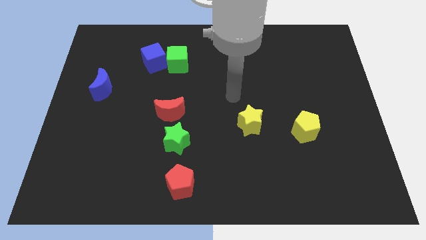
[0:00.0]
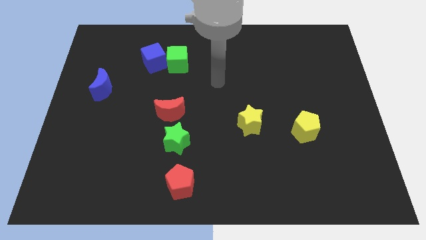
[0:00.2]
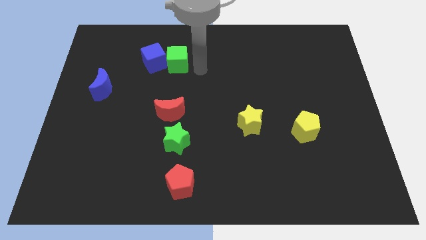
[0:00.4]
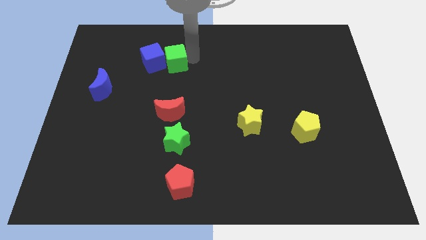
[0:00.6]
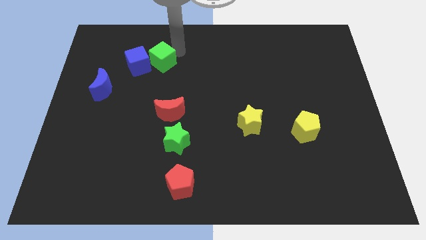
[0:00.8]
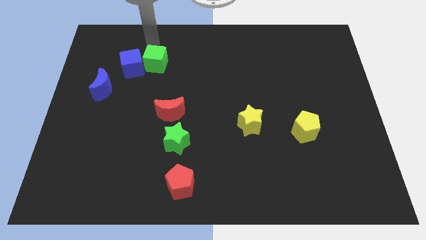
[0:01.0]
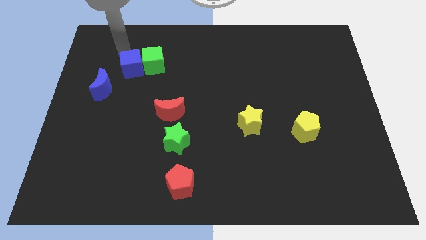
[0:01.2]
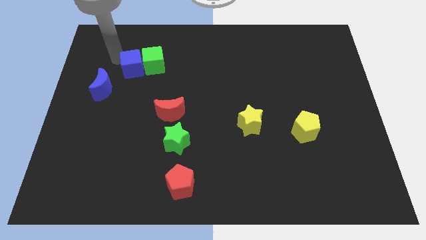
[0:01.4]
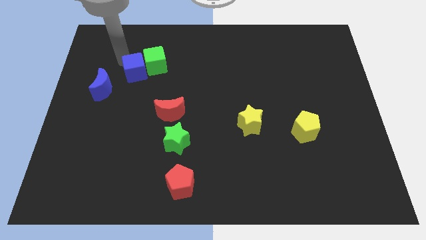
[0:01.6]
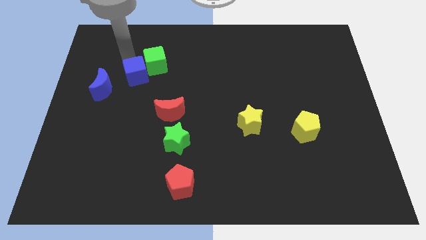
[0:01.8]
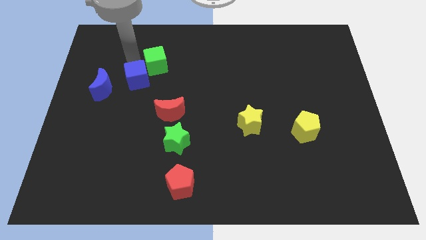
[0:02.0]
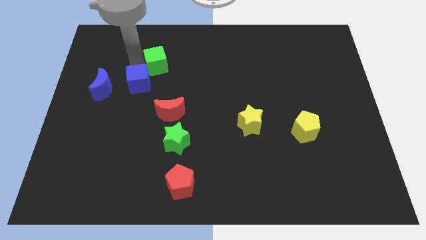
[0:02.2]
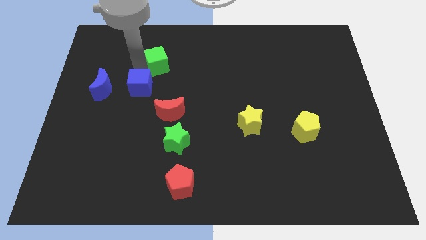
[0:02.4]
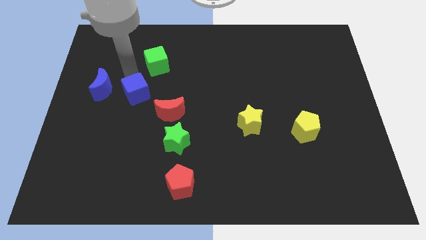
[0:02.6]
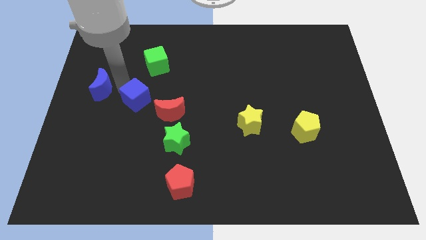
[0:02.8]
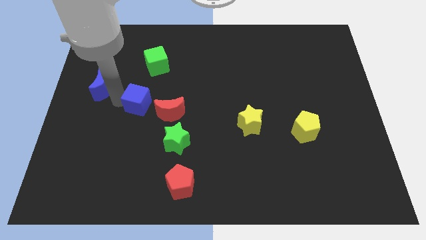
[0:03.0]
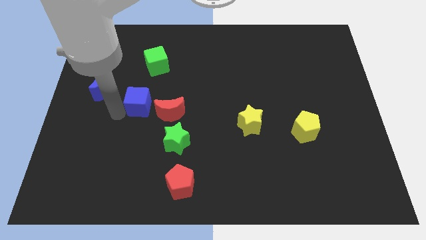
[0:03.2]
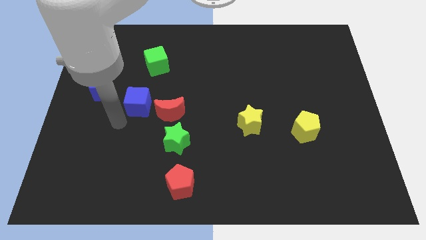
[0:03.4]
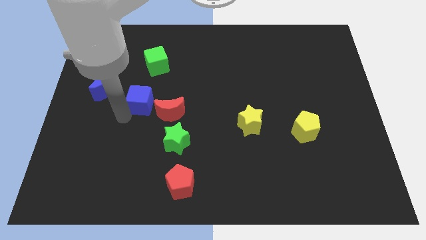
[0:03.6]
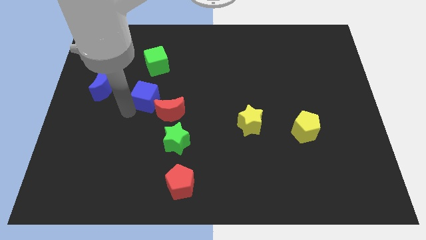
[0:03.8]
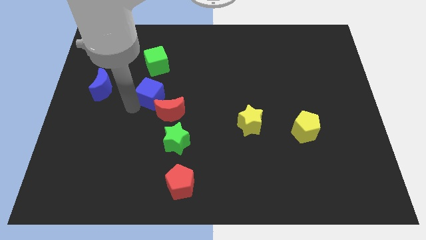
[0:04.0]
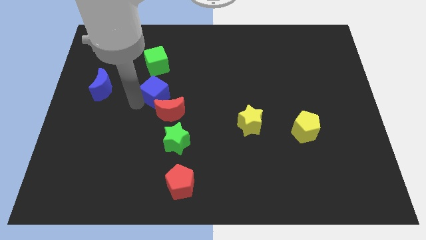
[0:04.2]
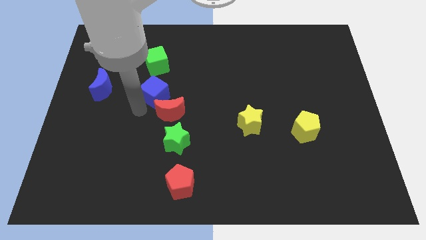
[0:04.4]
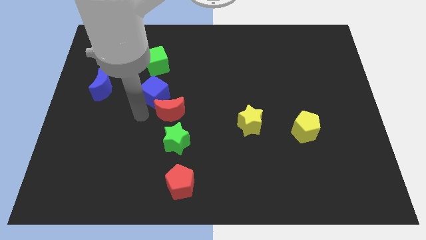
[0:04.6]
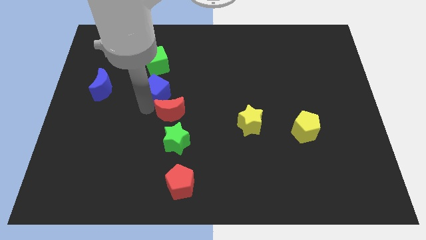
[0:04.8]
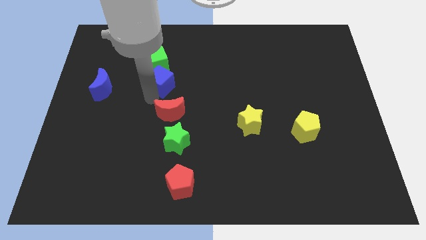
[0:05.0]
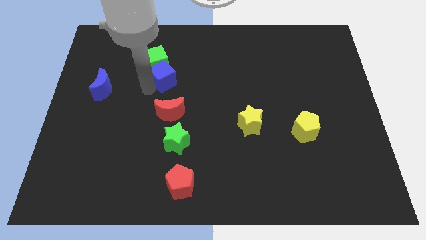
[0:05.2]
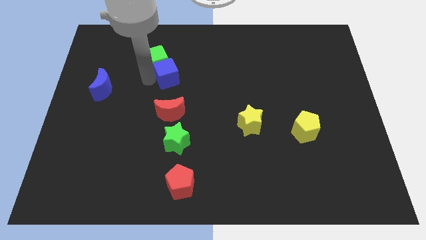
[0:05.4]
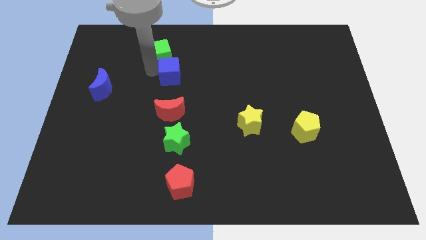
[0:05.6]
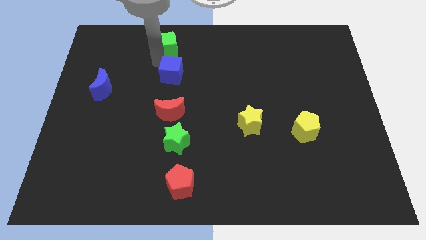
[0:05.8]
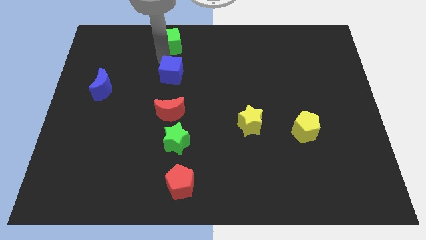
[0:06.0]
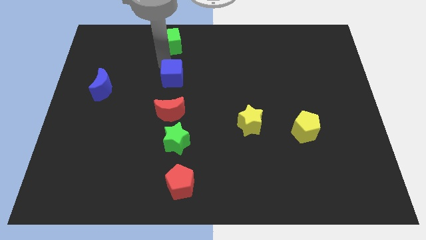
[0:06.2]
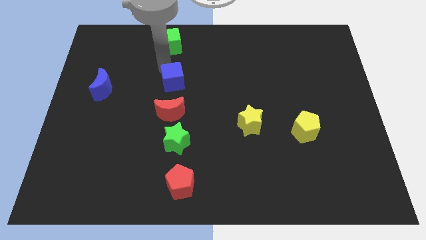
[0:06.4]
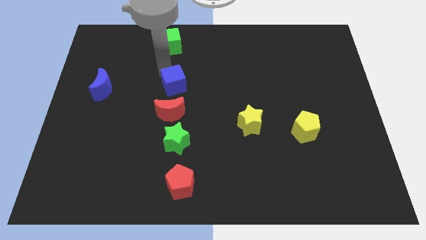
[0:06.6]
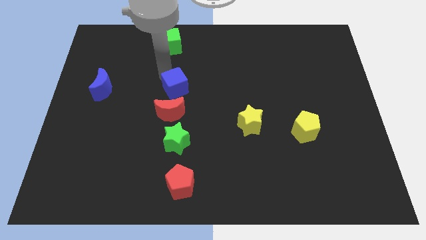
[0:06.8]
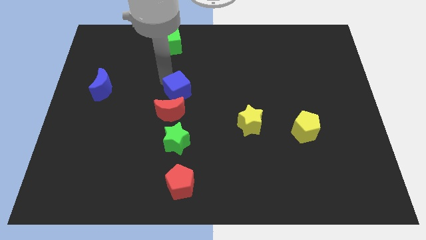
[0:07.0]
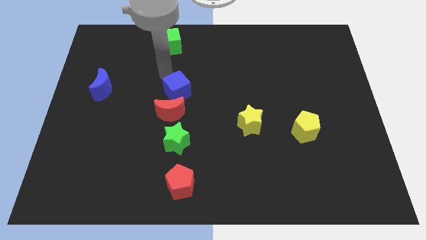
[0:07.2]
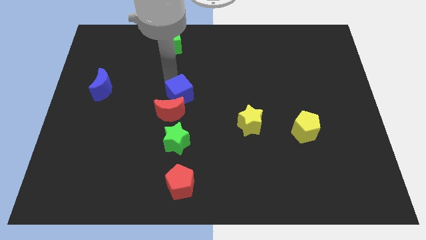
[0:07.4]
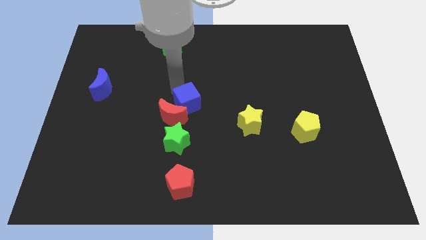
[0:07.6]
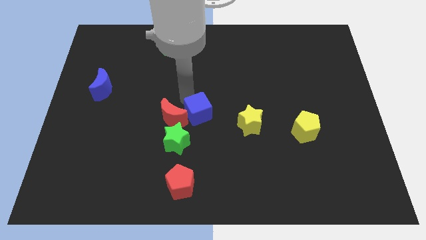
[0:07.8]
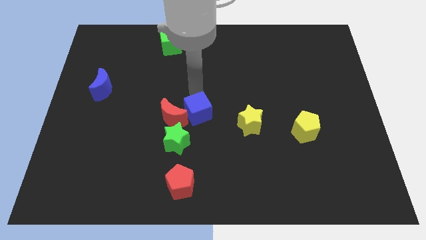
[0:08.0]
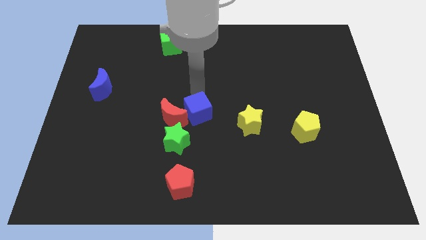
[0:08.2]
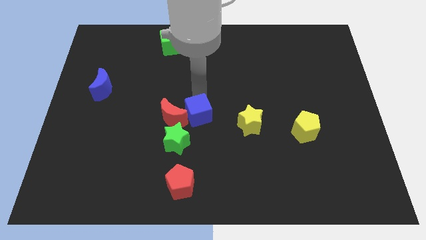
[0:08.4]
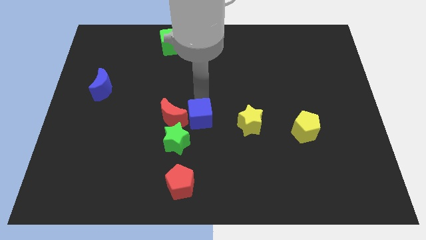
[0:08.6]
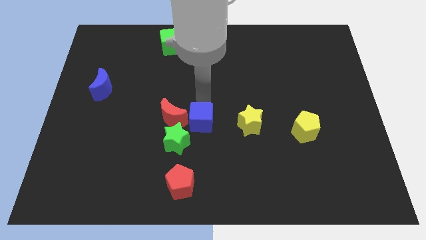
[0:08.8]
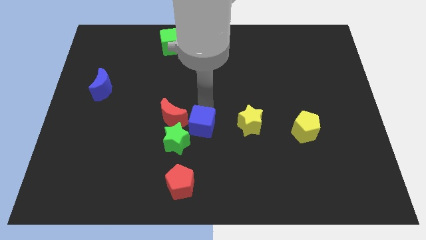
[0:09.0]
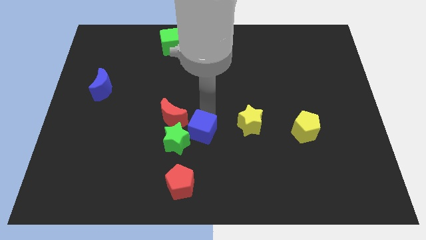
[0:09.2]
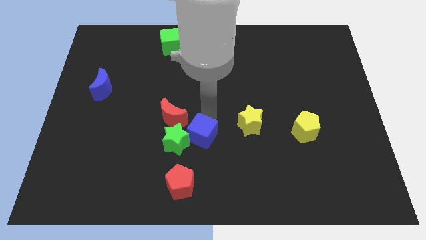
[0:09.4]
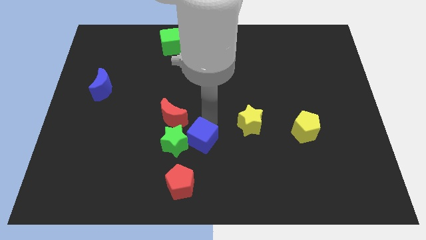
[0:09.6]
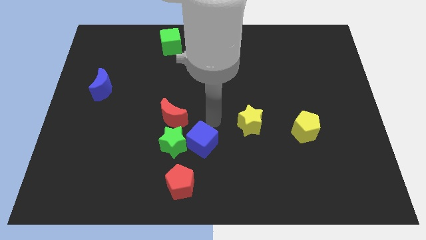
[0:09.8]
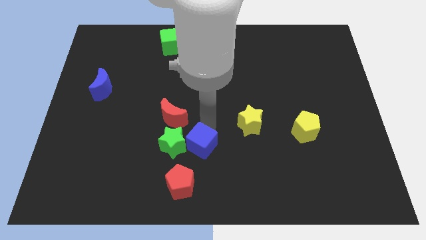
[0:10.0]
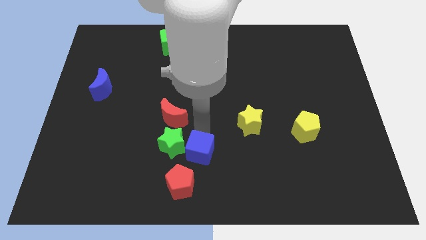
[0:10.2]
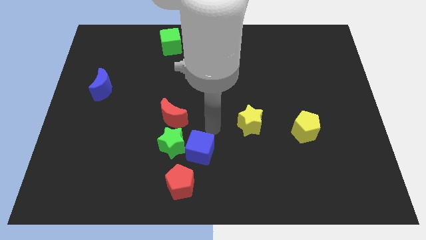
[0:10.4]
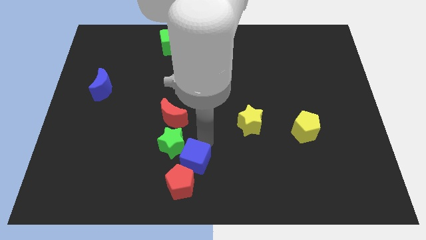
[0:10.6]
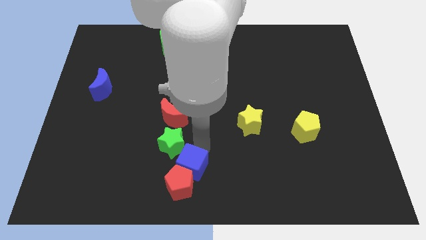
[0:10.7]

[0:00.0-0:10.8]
move the blue cube to the red pentagon

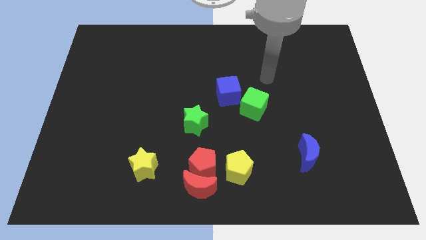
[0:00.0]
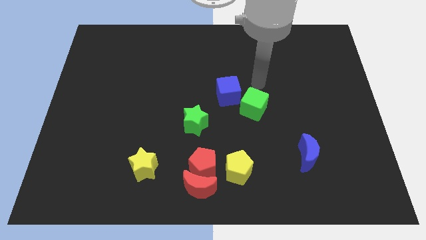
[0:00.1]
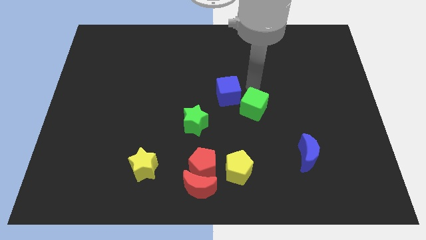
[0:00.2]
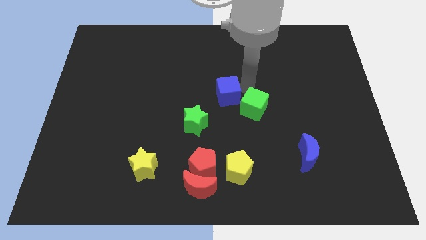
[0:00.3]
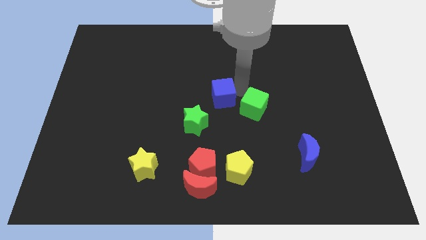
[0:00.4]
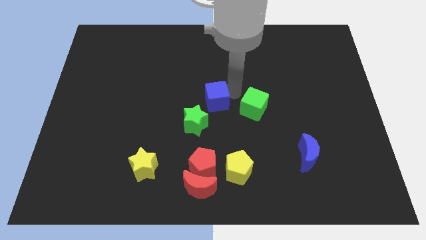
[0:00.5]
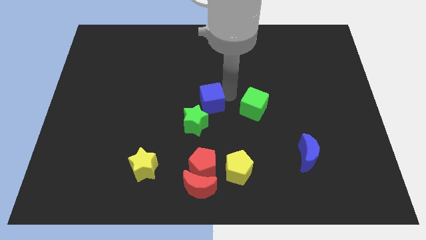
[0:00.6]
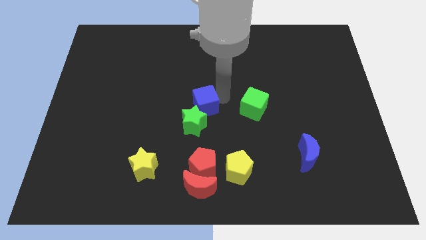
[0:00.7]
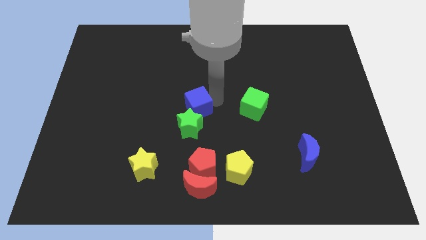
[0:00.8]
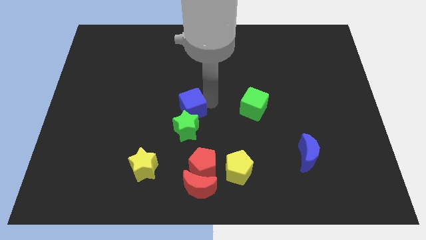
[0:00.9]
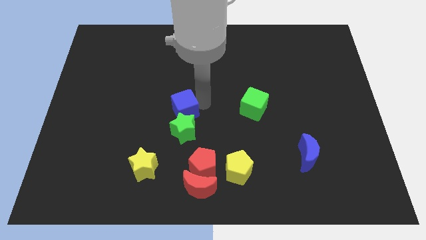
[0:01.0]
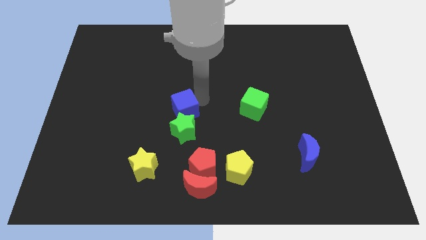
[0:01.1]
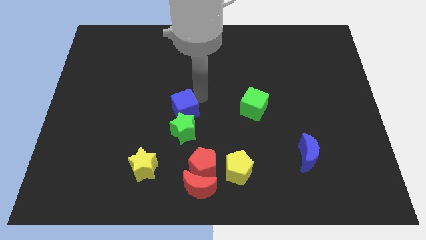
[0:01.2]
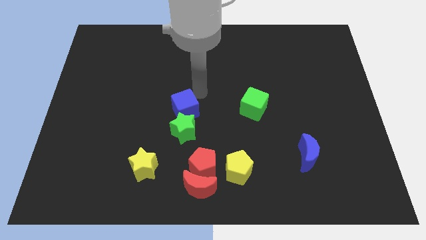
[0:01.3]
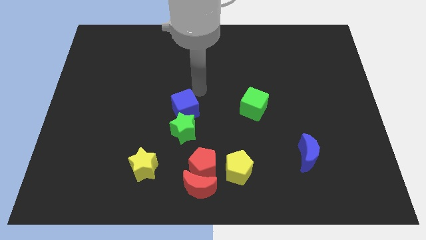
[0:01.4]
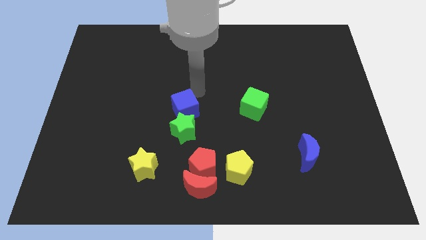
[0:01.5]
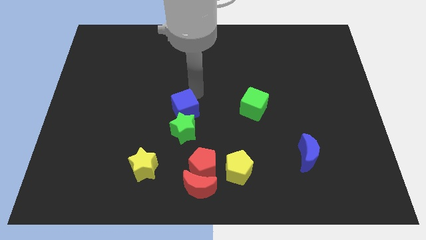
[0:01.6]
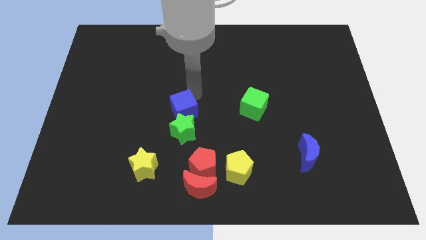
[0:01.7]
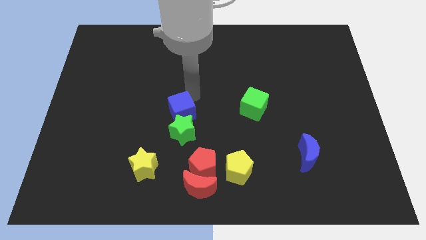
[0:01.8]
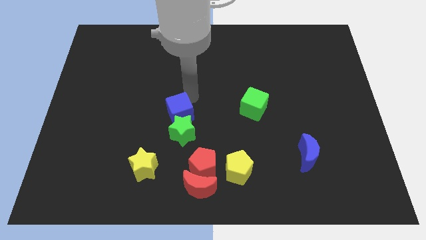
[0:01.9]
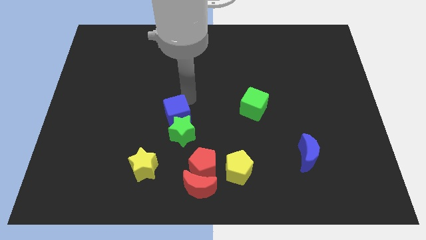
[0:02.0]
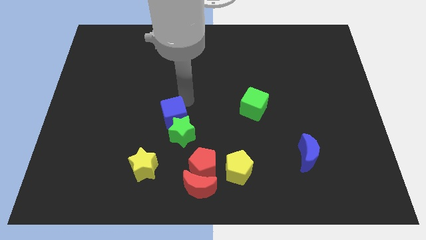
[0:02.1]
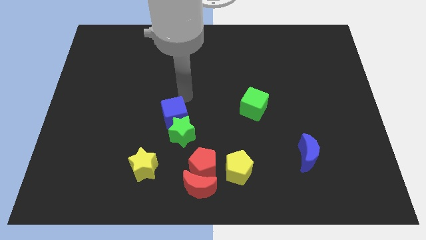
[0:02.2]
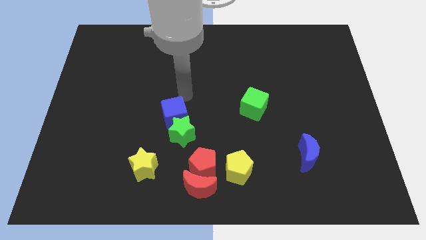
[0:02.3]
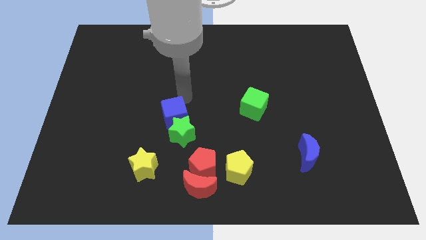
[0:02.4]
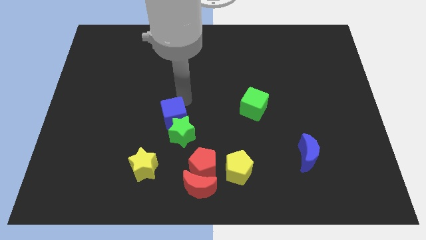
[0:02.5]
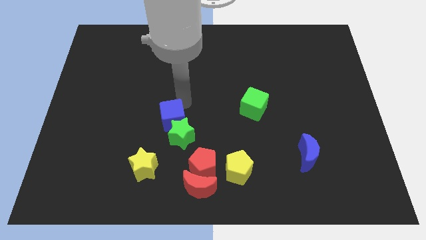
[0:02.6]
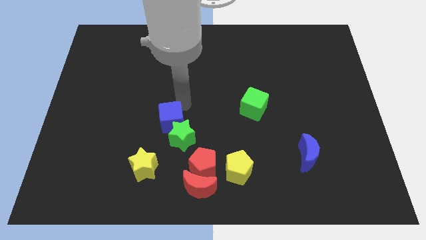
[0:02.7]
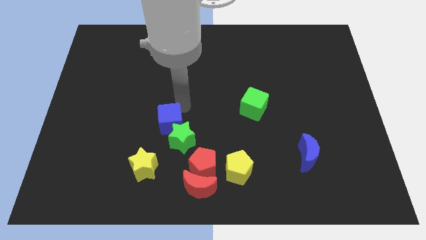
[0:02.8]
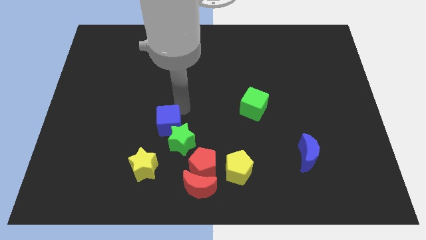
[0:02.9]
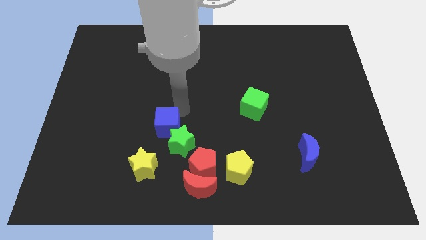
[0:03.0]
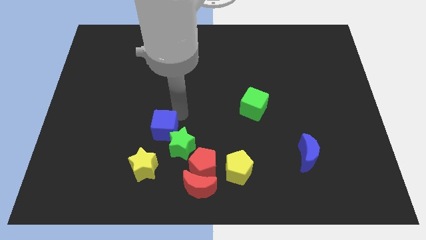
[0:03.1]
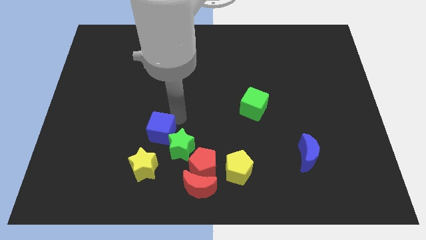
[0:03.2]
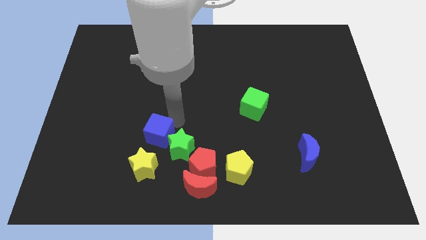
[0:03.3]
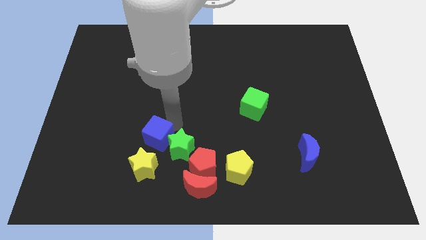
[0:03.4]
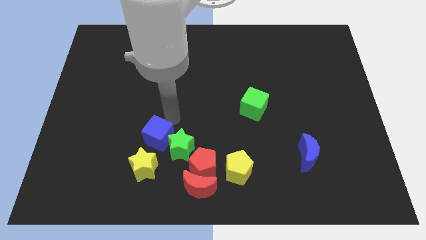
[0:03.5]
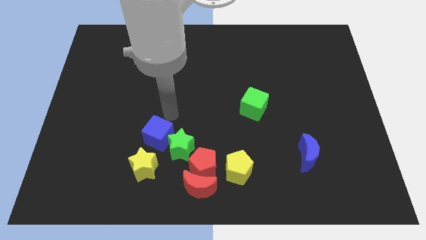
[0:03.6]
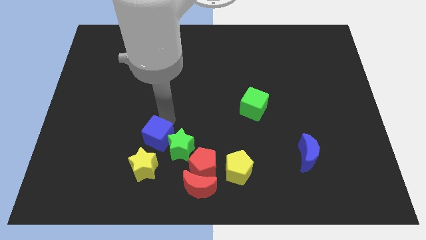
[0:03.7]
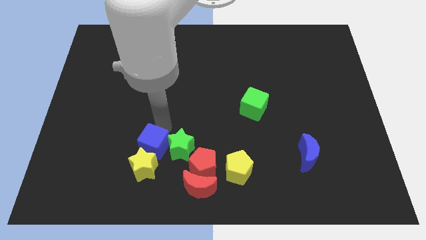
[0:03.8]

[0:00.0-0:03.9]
push the blue cube towards the yellow star
